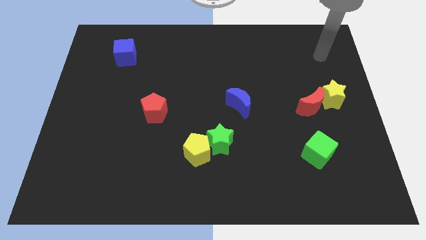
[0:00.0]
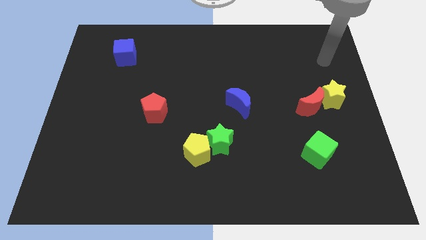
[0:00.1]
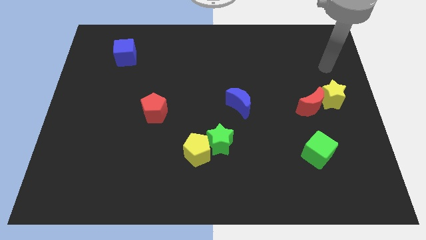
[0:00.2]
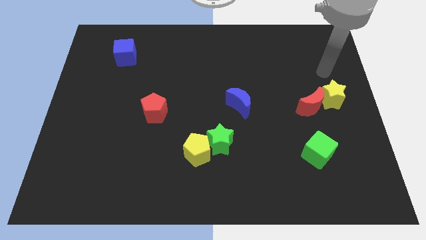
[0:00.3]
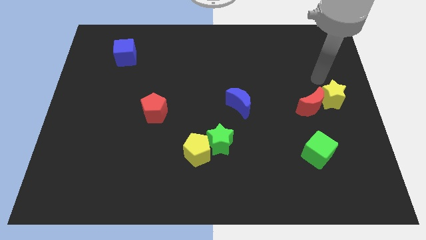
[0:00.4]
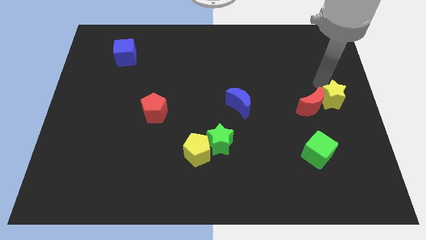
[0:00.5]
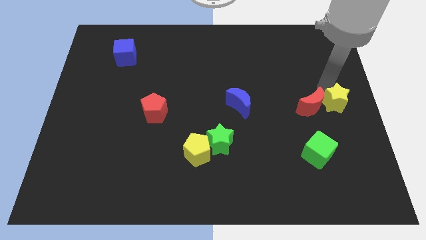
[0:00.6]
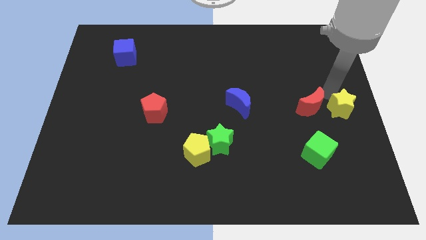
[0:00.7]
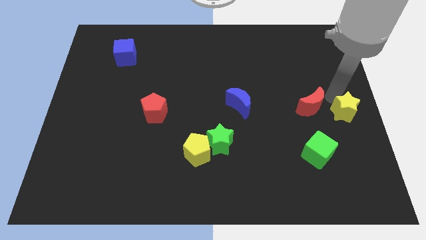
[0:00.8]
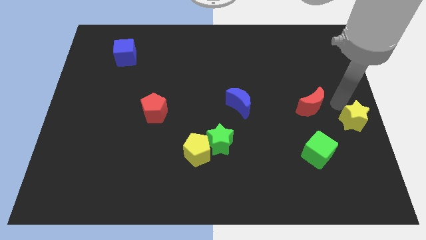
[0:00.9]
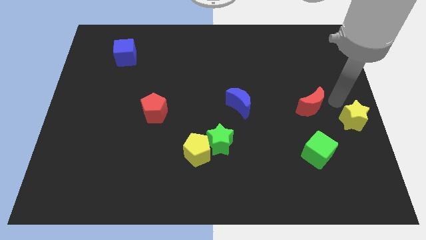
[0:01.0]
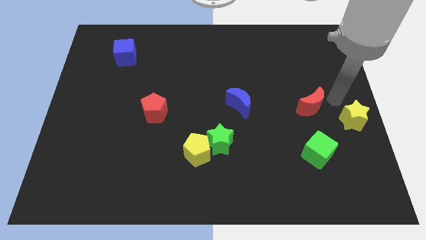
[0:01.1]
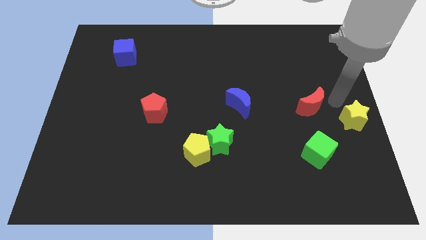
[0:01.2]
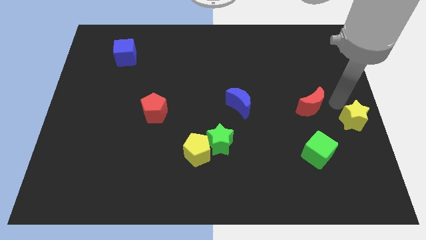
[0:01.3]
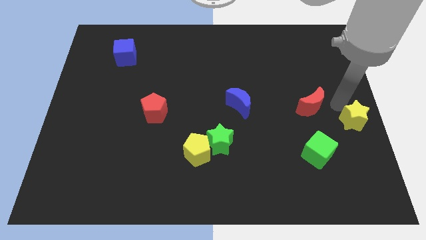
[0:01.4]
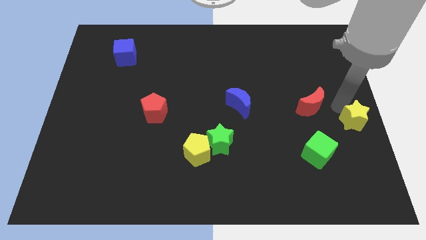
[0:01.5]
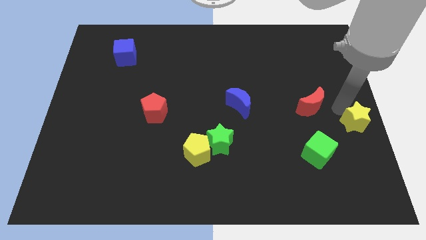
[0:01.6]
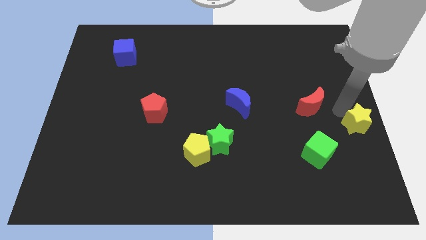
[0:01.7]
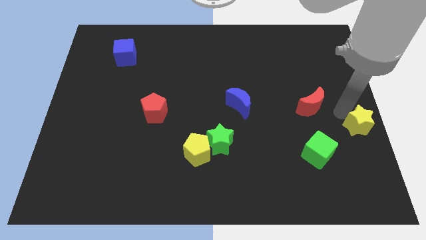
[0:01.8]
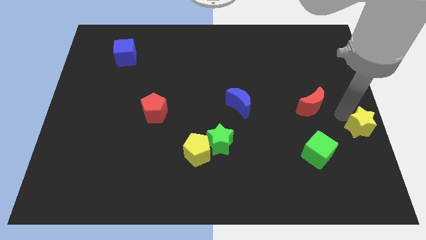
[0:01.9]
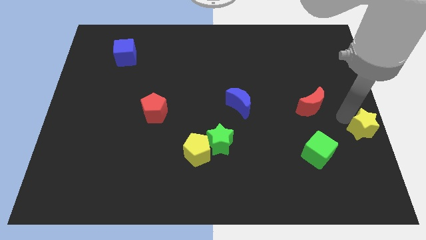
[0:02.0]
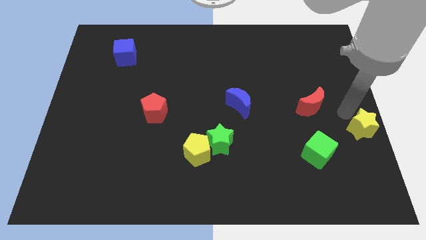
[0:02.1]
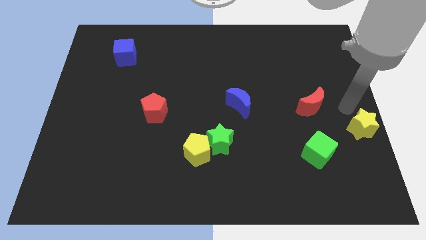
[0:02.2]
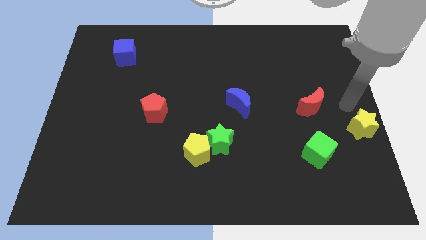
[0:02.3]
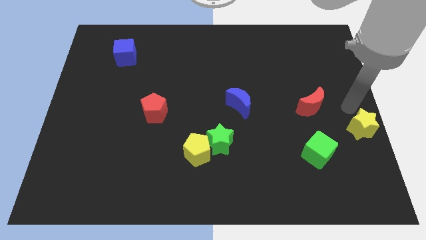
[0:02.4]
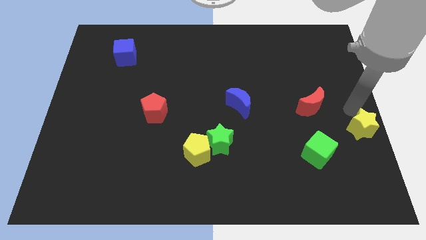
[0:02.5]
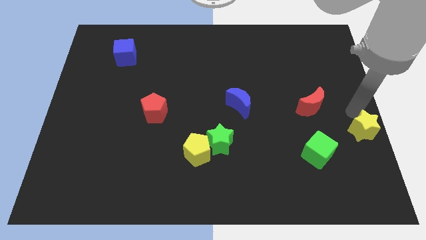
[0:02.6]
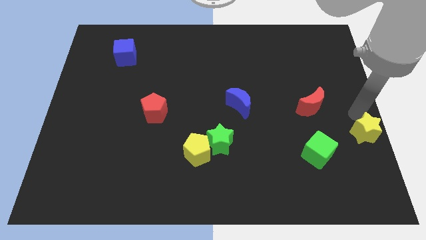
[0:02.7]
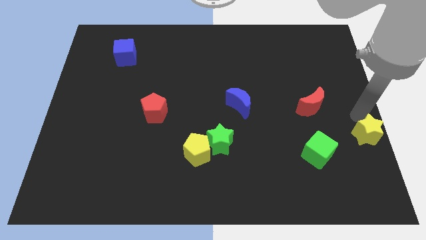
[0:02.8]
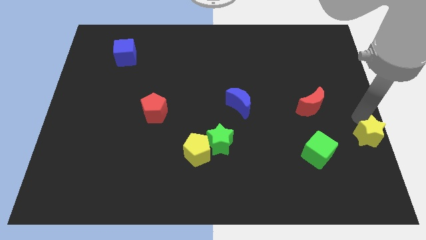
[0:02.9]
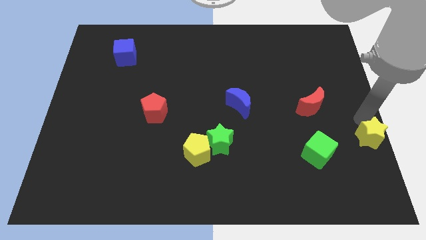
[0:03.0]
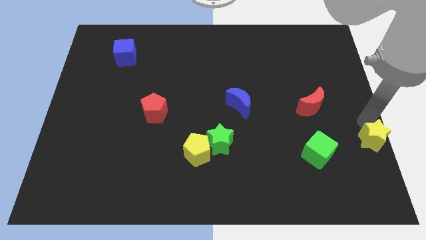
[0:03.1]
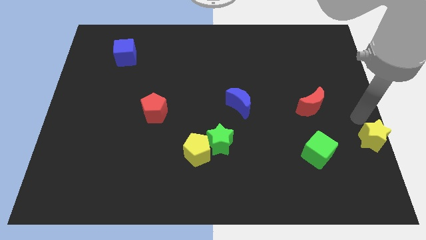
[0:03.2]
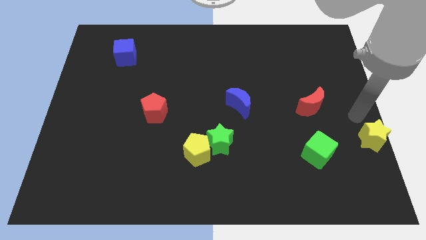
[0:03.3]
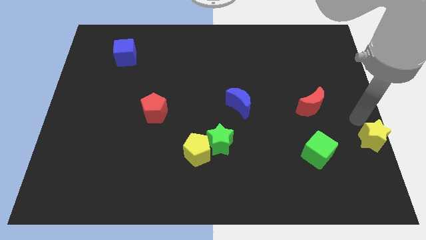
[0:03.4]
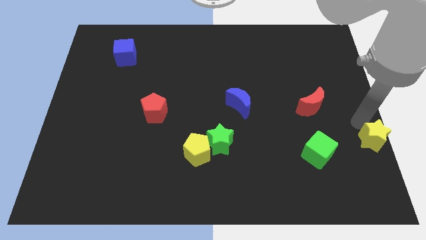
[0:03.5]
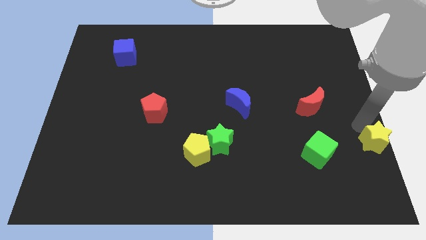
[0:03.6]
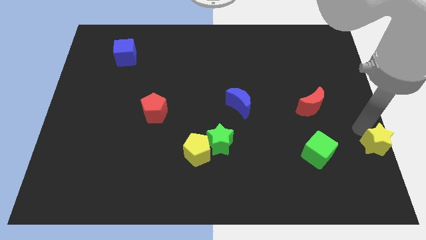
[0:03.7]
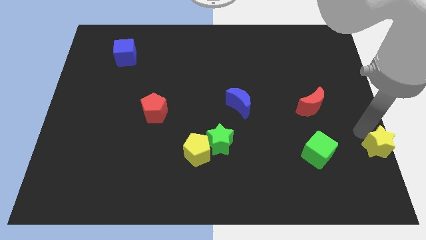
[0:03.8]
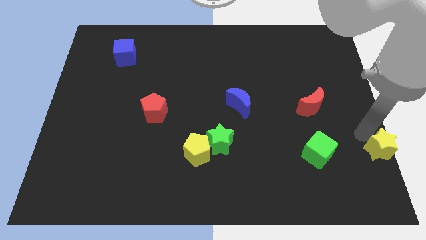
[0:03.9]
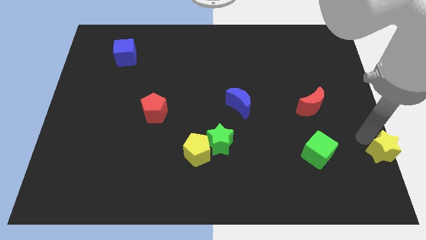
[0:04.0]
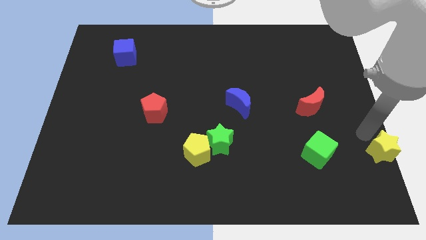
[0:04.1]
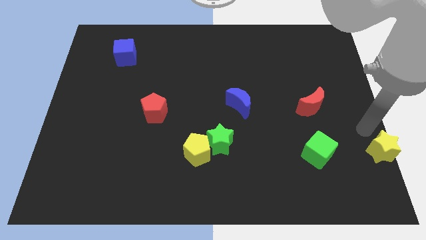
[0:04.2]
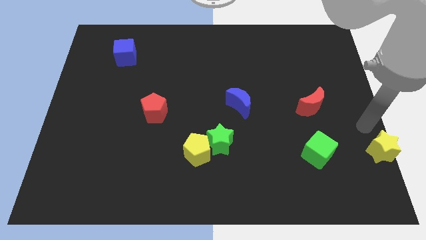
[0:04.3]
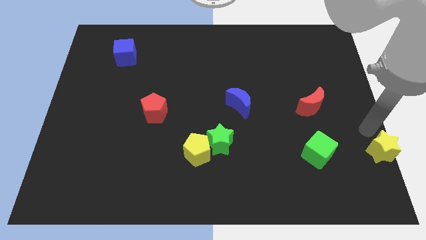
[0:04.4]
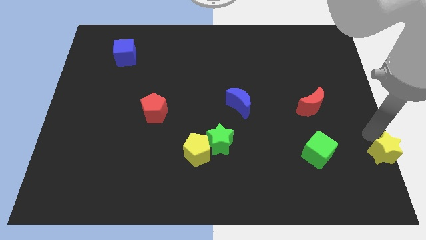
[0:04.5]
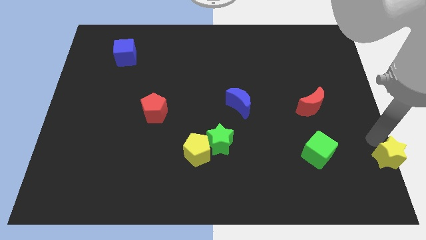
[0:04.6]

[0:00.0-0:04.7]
put the yellow star to the bottom right corner

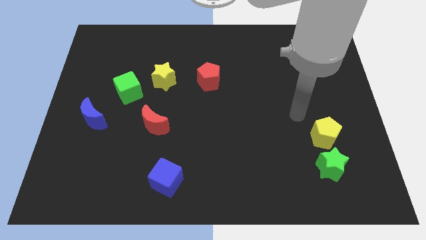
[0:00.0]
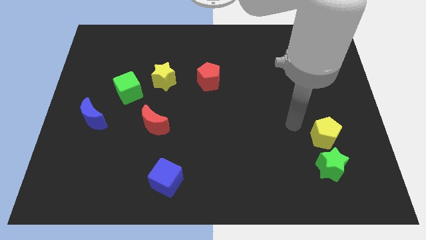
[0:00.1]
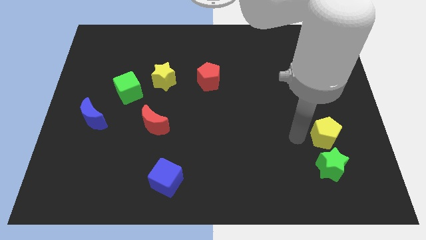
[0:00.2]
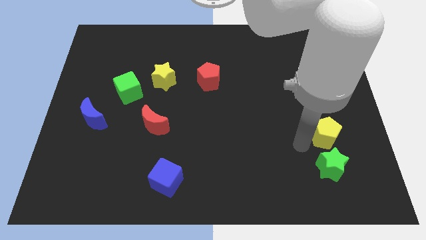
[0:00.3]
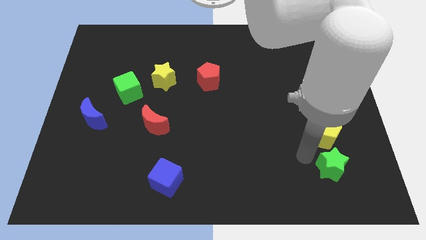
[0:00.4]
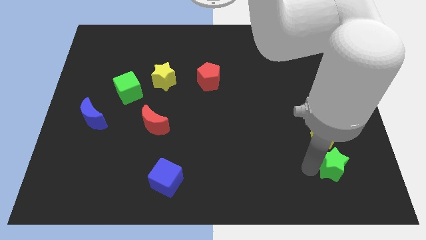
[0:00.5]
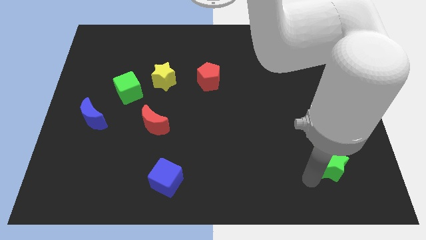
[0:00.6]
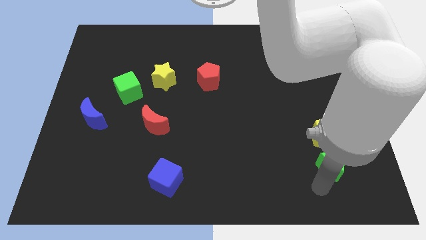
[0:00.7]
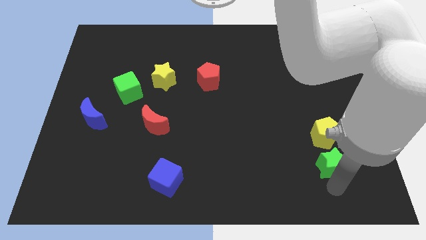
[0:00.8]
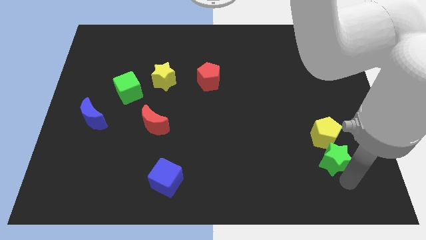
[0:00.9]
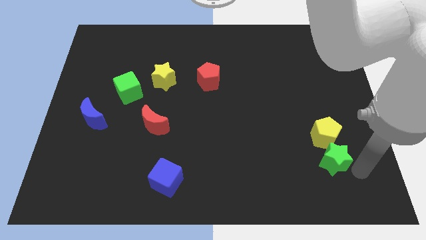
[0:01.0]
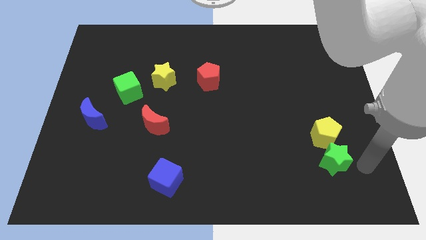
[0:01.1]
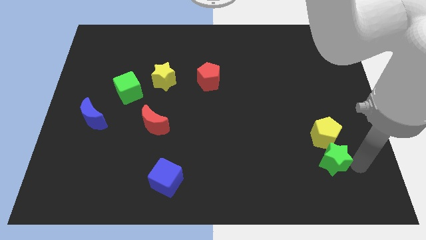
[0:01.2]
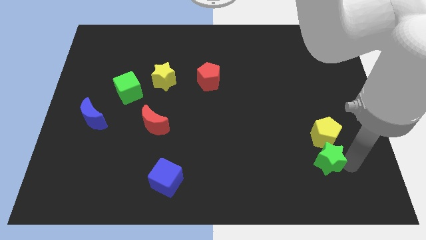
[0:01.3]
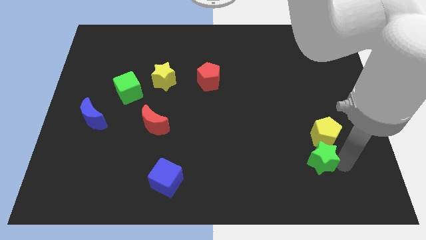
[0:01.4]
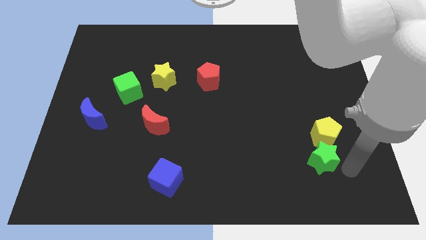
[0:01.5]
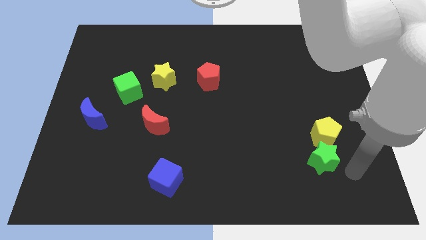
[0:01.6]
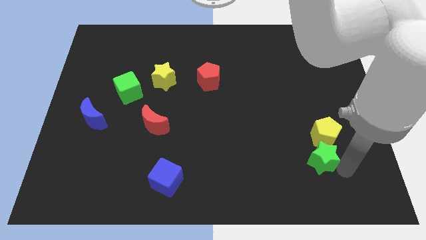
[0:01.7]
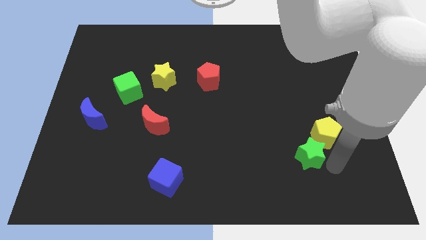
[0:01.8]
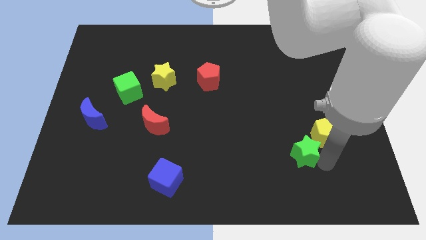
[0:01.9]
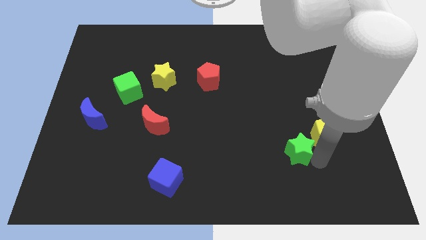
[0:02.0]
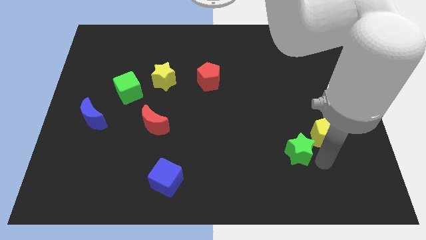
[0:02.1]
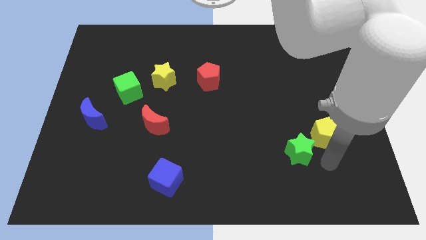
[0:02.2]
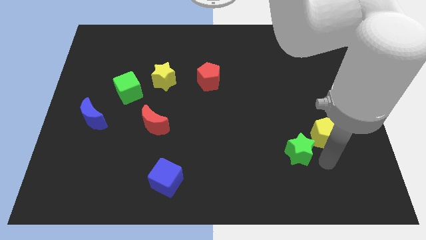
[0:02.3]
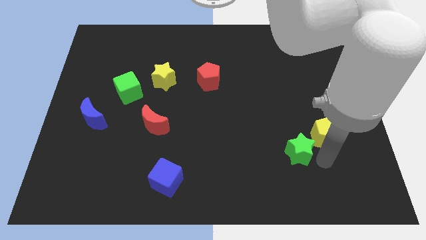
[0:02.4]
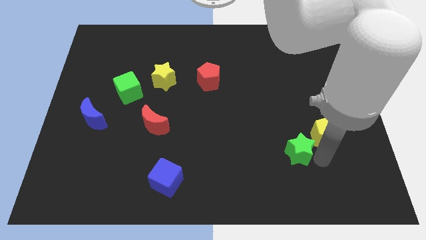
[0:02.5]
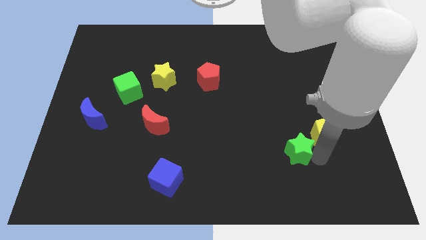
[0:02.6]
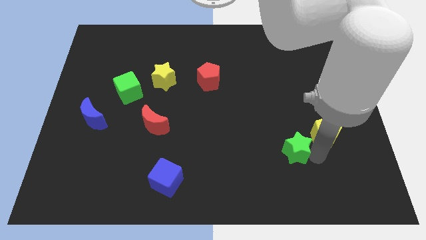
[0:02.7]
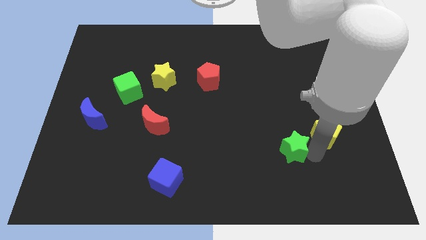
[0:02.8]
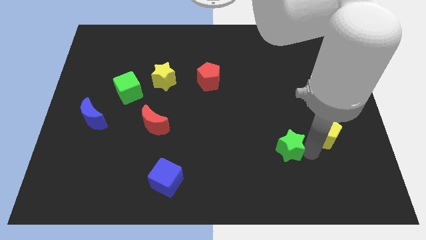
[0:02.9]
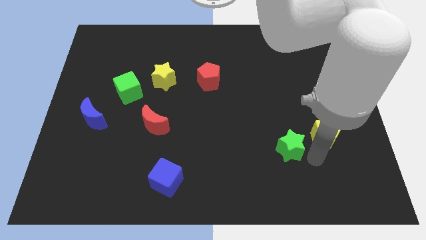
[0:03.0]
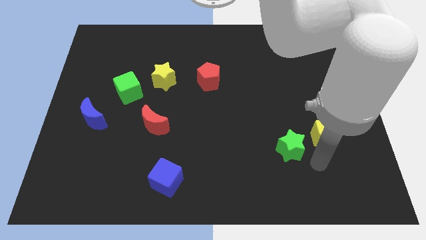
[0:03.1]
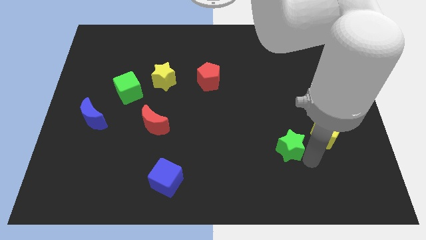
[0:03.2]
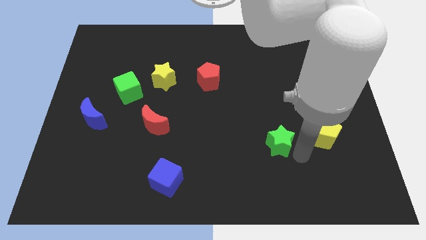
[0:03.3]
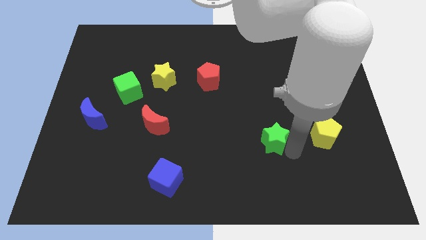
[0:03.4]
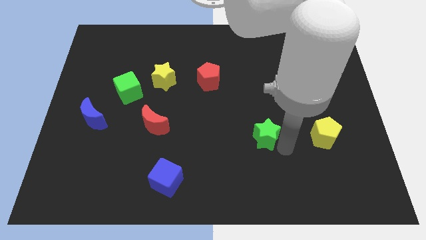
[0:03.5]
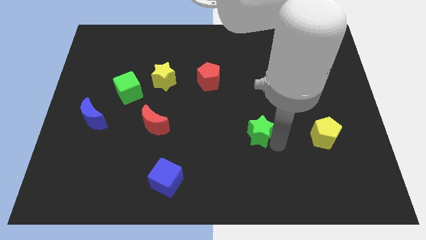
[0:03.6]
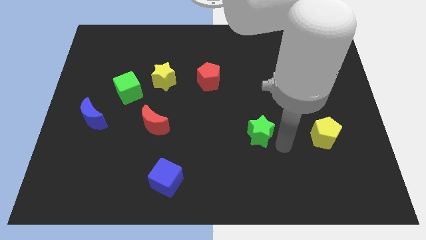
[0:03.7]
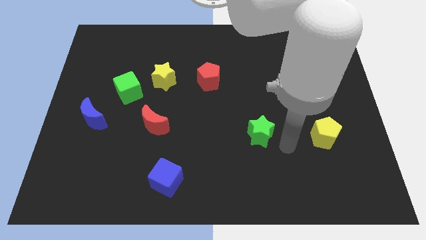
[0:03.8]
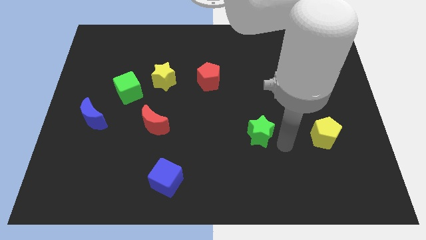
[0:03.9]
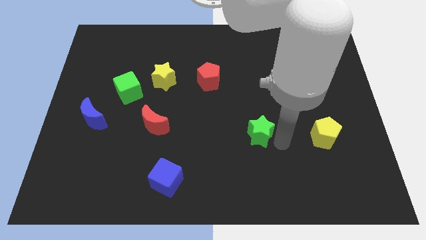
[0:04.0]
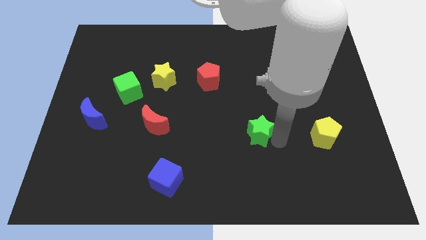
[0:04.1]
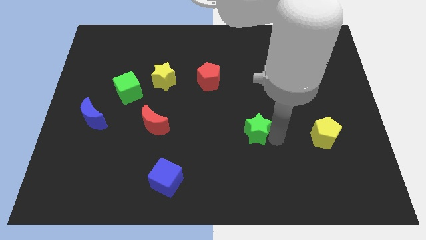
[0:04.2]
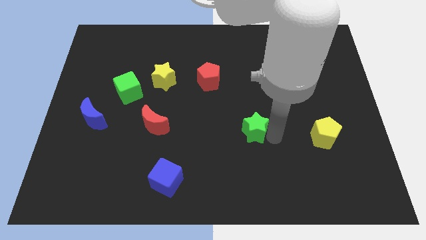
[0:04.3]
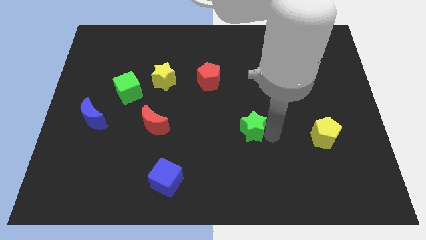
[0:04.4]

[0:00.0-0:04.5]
put the green star to the center of the board
